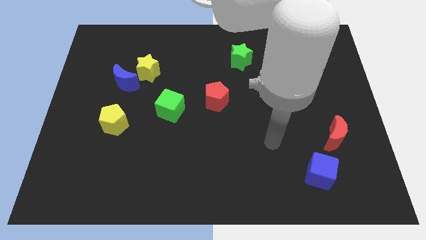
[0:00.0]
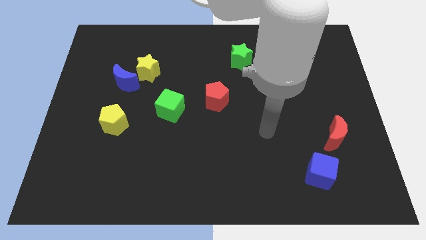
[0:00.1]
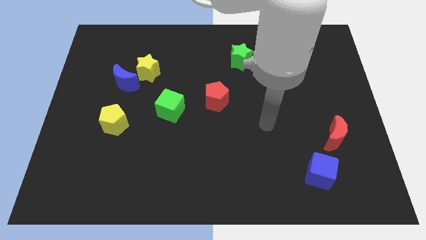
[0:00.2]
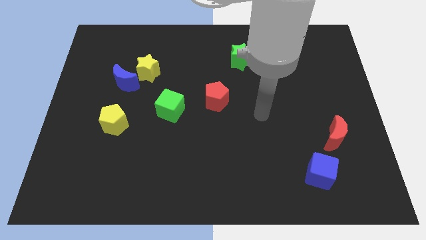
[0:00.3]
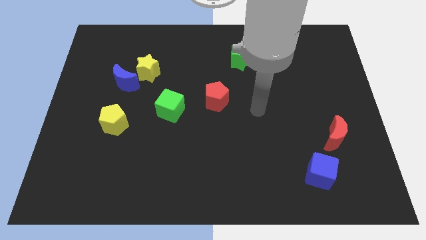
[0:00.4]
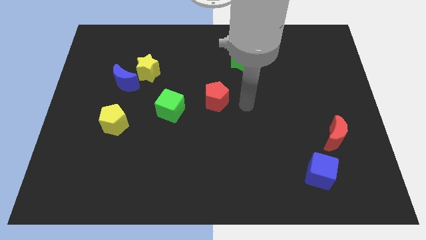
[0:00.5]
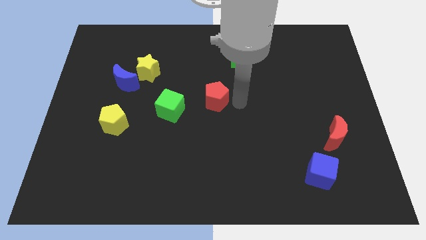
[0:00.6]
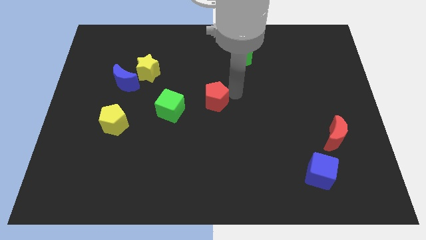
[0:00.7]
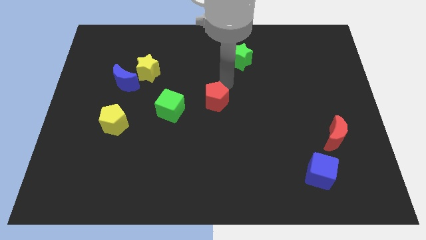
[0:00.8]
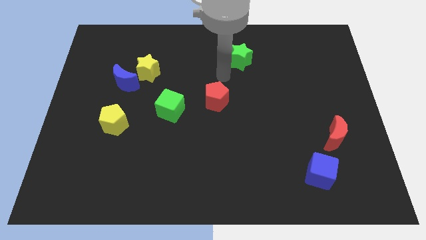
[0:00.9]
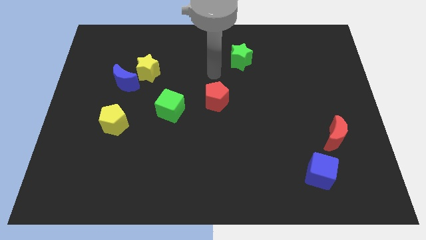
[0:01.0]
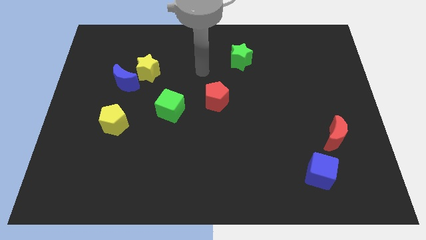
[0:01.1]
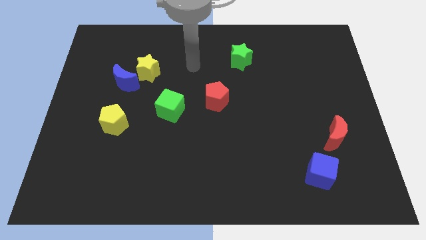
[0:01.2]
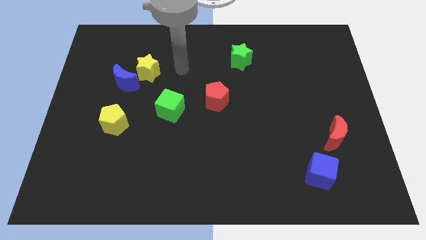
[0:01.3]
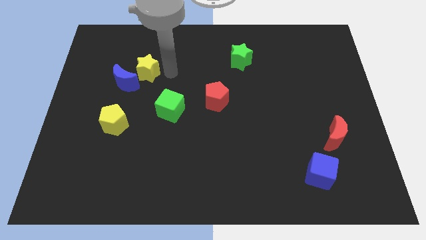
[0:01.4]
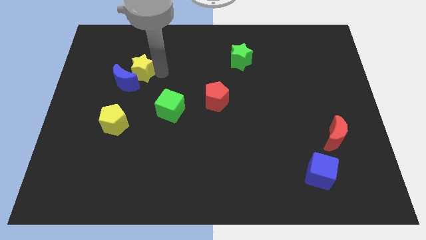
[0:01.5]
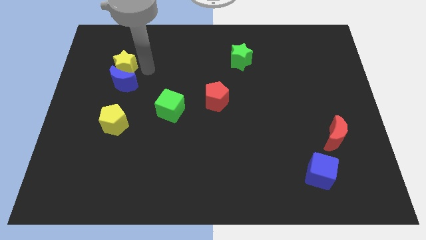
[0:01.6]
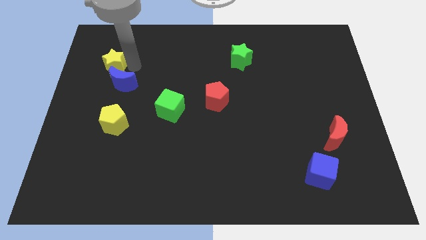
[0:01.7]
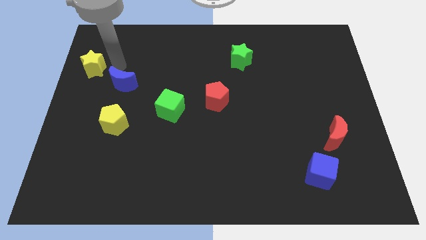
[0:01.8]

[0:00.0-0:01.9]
pull the blue moon apart from the yellow star

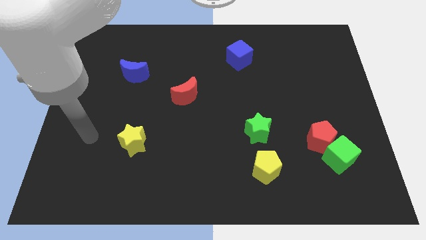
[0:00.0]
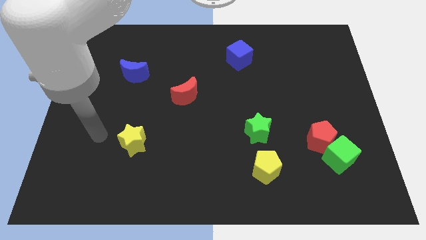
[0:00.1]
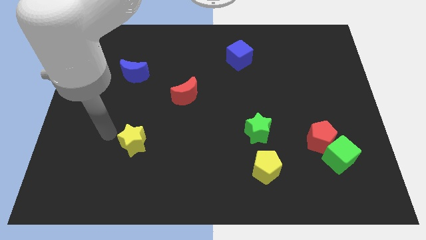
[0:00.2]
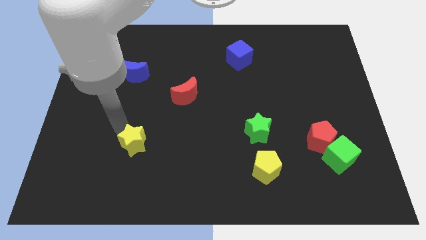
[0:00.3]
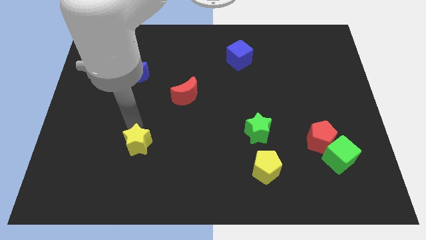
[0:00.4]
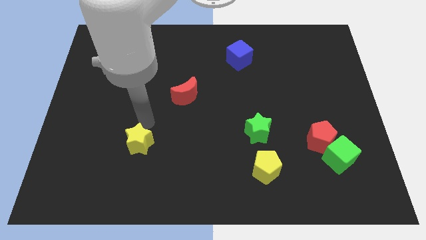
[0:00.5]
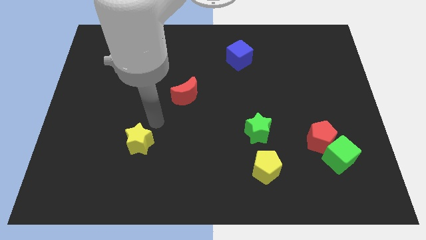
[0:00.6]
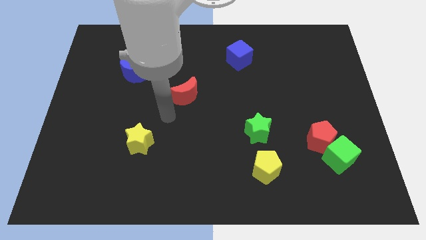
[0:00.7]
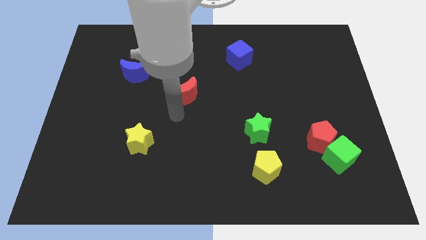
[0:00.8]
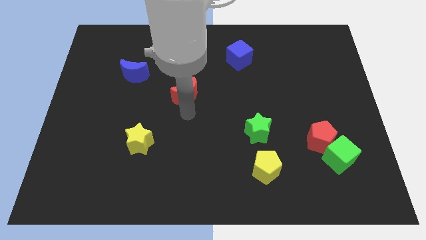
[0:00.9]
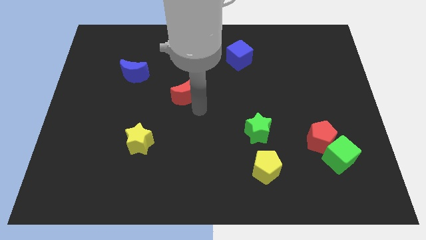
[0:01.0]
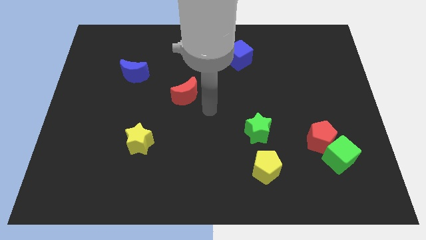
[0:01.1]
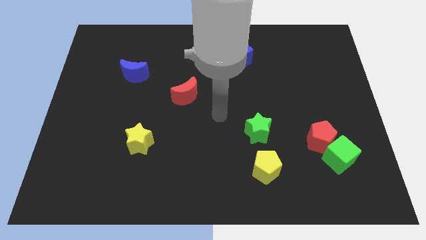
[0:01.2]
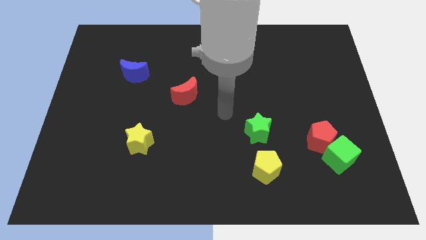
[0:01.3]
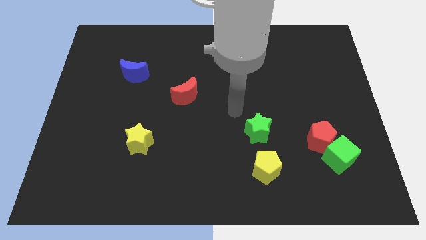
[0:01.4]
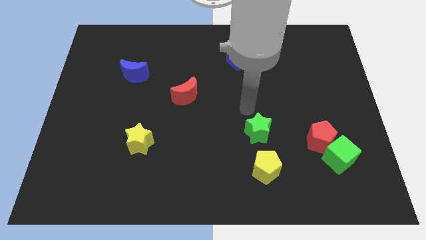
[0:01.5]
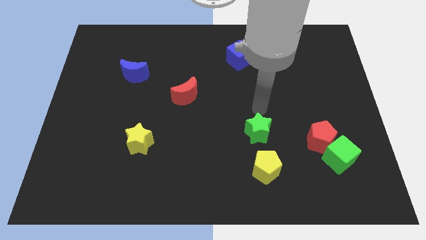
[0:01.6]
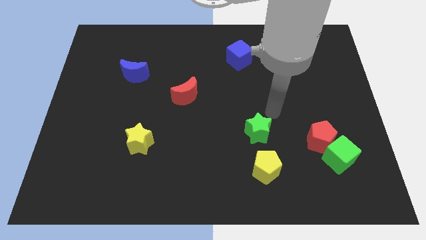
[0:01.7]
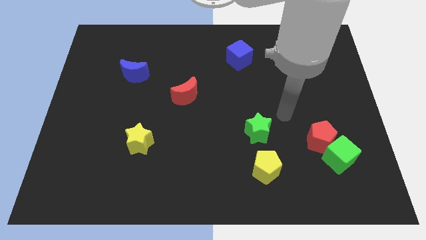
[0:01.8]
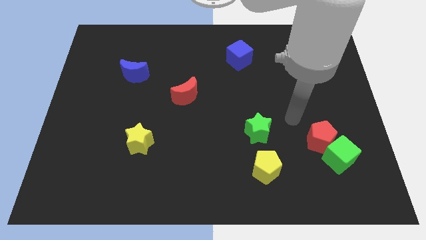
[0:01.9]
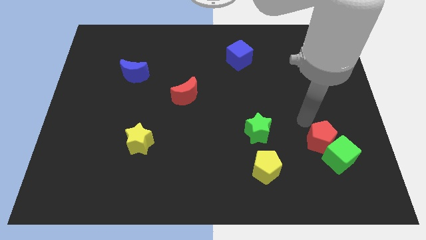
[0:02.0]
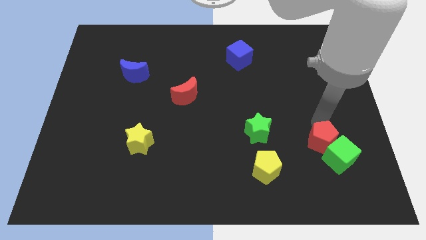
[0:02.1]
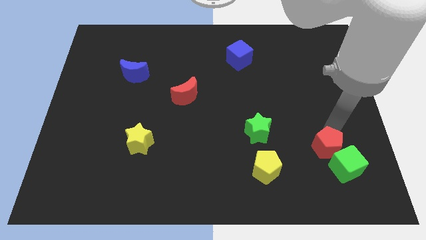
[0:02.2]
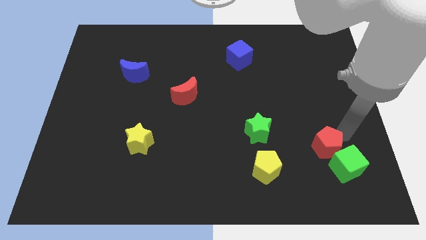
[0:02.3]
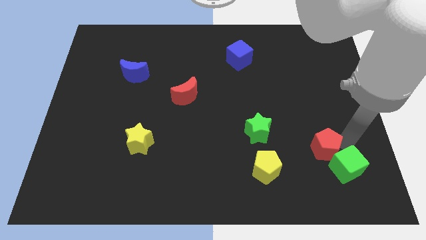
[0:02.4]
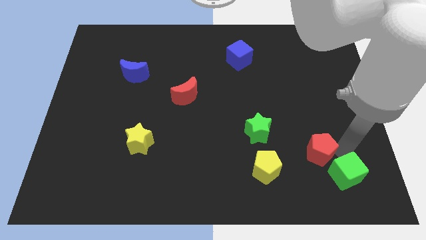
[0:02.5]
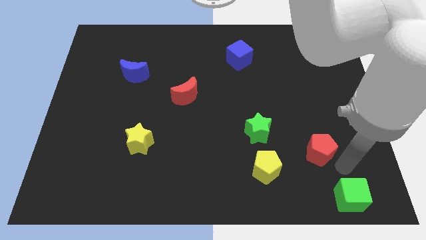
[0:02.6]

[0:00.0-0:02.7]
pull the red pentagon apart from the green cube

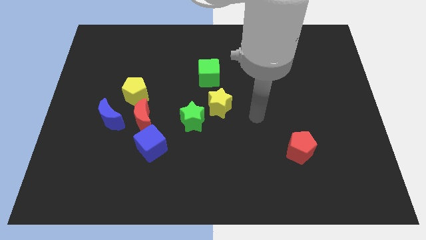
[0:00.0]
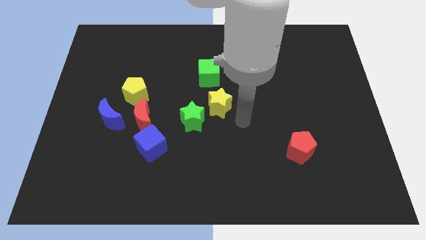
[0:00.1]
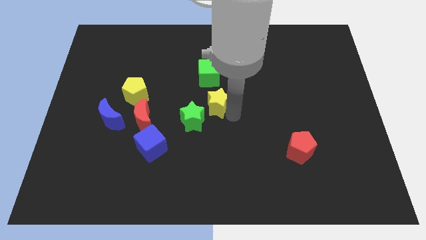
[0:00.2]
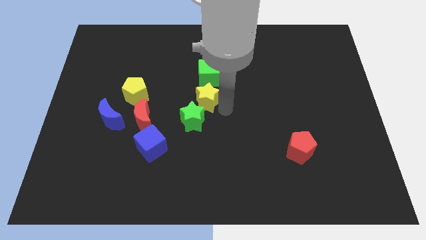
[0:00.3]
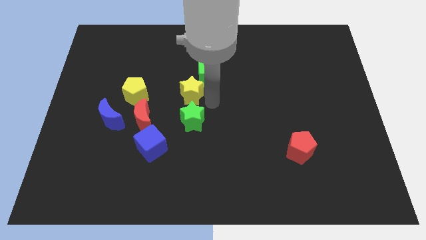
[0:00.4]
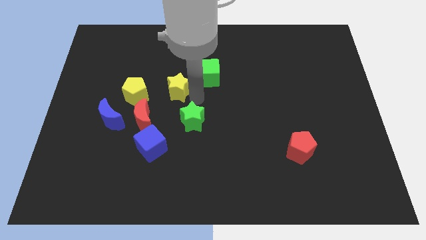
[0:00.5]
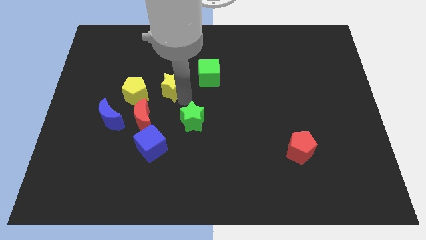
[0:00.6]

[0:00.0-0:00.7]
move the green star away from the yellow star

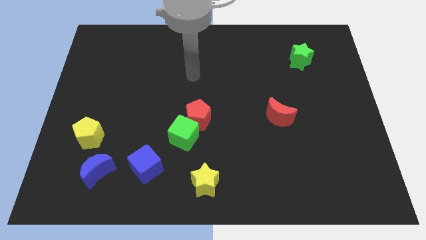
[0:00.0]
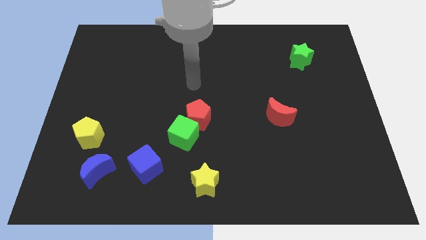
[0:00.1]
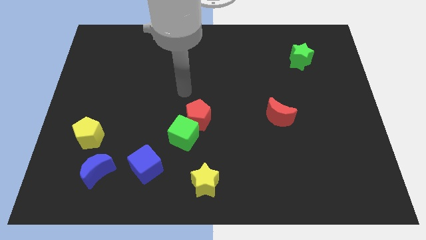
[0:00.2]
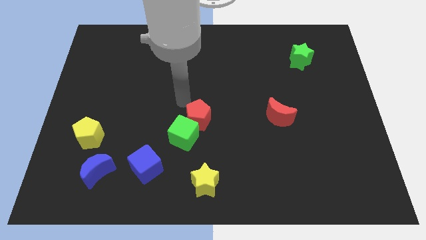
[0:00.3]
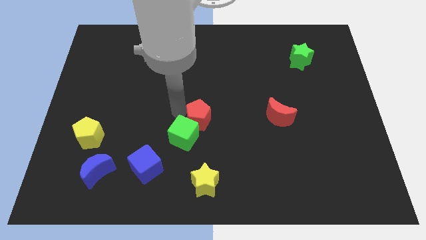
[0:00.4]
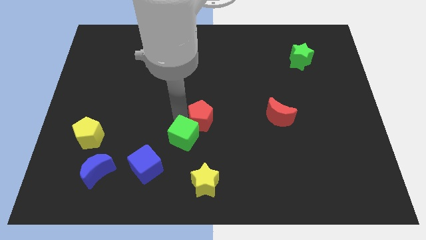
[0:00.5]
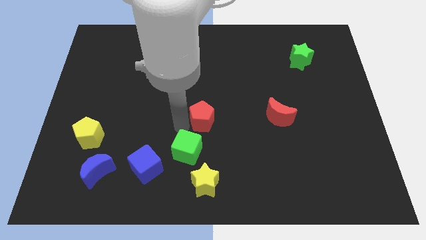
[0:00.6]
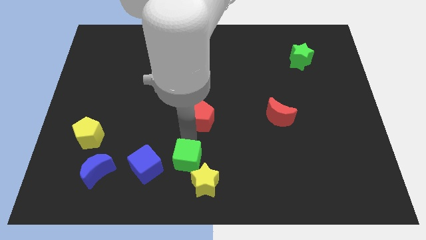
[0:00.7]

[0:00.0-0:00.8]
move the red pentagon away from the green cube

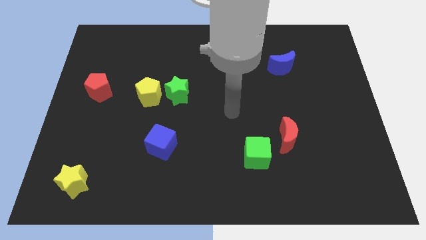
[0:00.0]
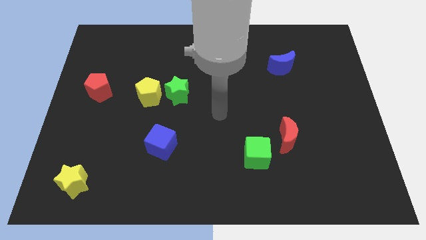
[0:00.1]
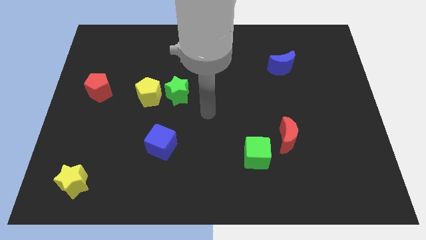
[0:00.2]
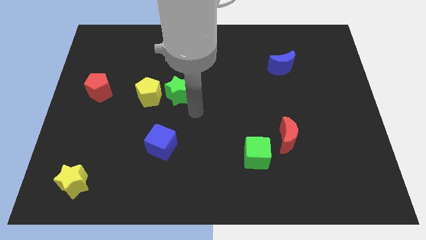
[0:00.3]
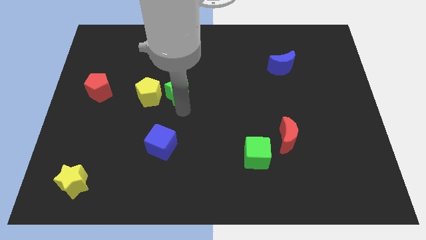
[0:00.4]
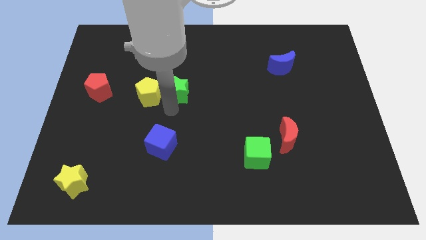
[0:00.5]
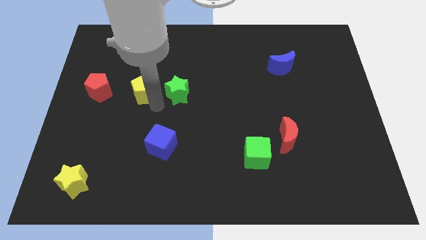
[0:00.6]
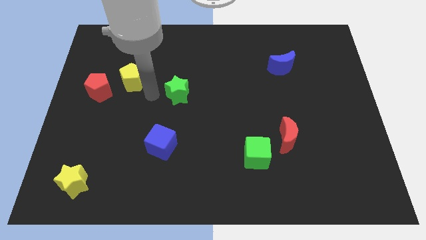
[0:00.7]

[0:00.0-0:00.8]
separate the green star from the yellow pentagon

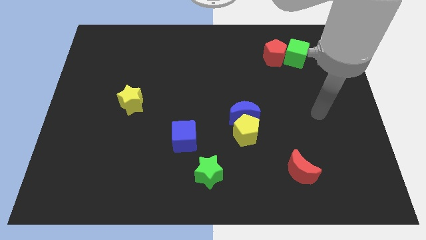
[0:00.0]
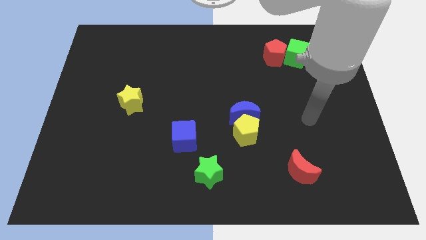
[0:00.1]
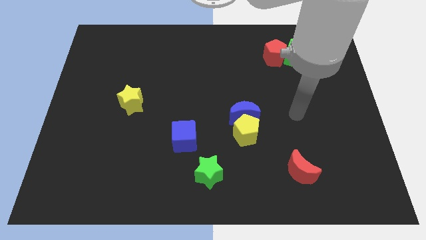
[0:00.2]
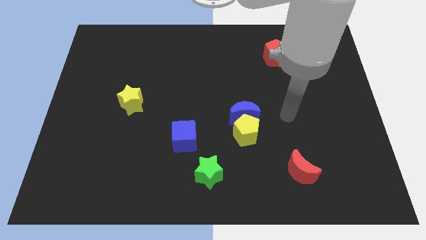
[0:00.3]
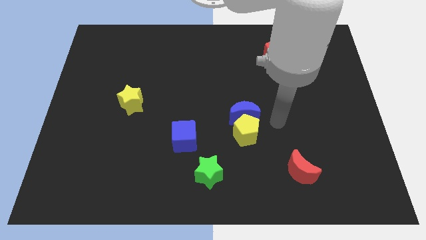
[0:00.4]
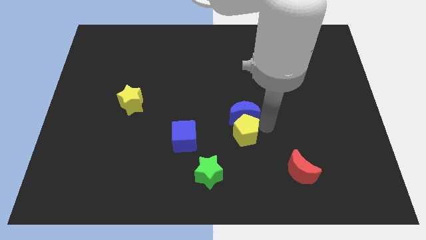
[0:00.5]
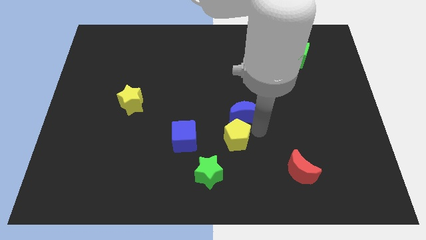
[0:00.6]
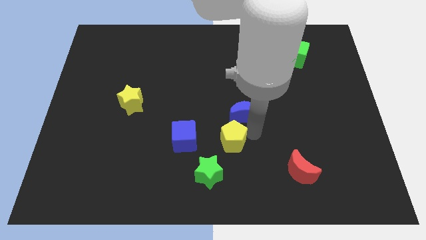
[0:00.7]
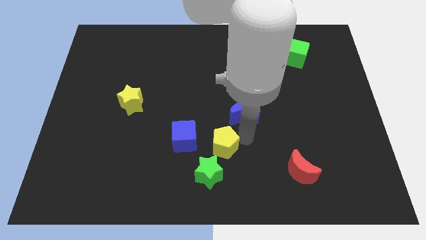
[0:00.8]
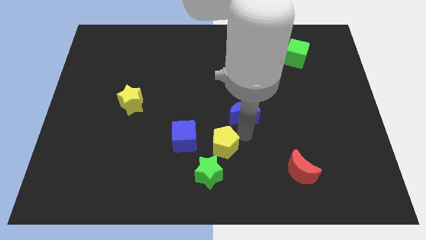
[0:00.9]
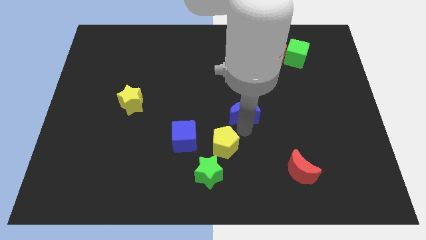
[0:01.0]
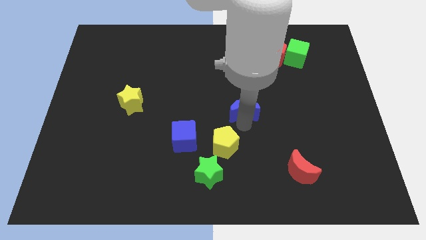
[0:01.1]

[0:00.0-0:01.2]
pull the blue moon apart from the yellow pentagon

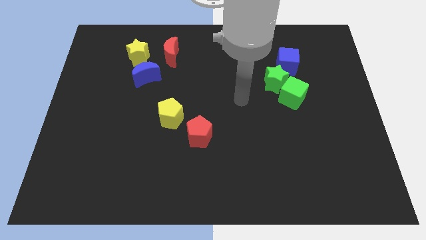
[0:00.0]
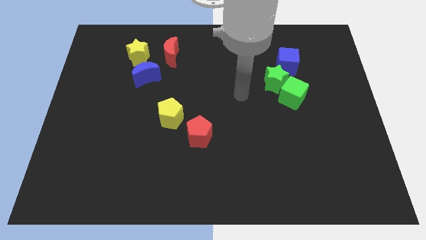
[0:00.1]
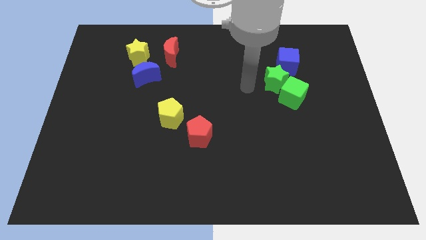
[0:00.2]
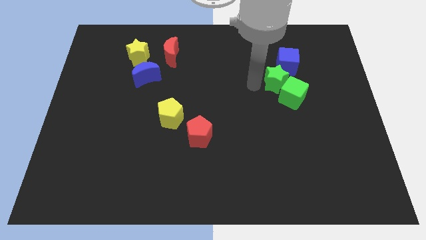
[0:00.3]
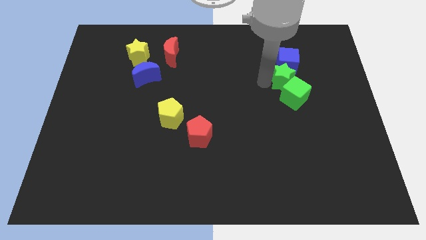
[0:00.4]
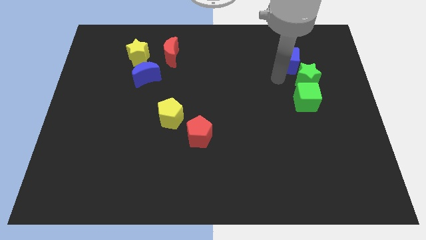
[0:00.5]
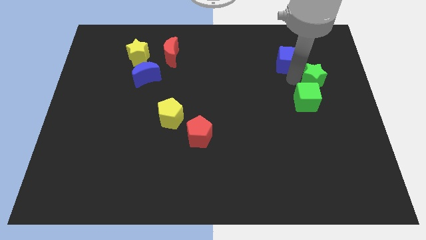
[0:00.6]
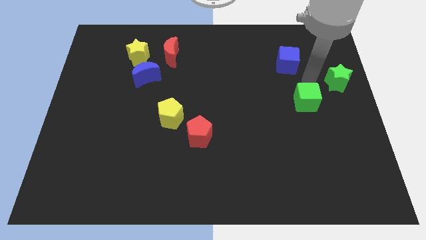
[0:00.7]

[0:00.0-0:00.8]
pull the green cube apart from the green star

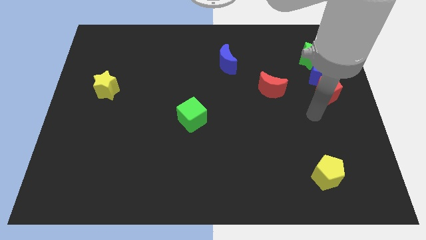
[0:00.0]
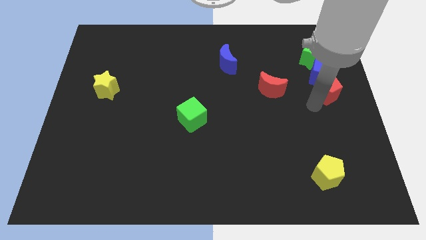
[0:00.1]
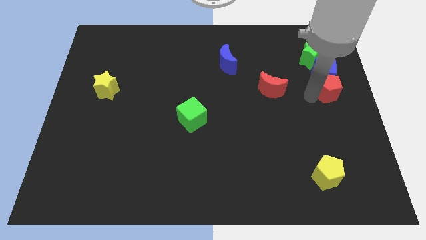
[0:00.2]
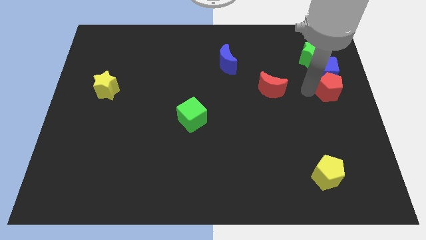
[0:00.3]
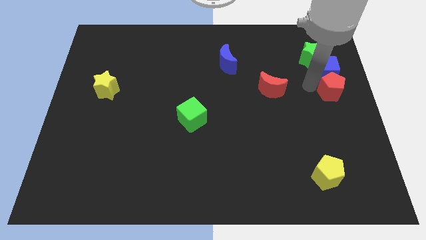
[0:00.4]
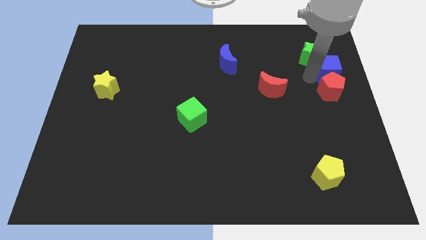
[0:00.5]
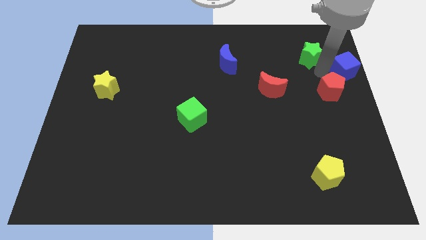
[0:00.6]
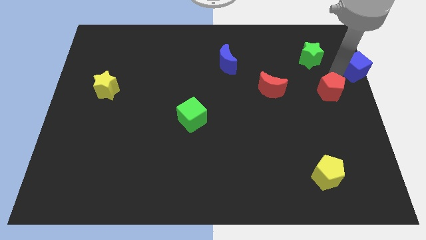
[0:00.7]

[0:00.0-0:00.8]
separate the red pentagon from the blue cube
